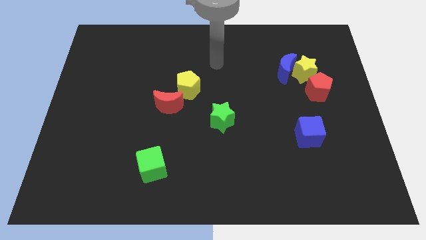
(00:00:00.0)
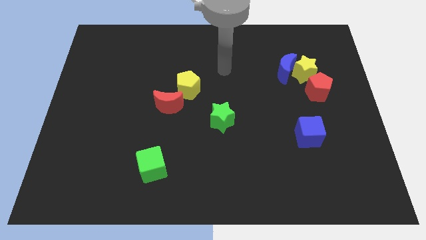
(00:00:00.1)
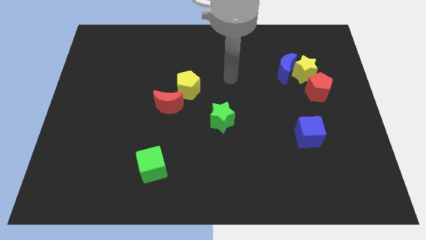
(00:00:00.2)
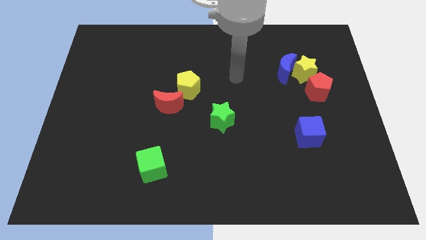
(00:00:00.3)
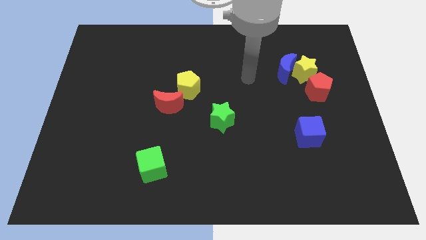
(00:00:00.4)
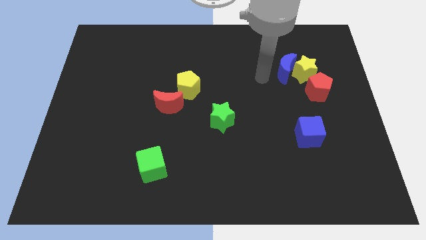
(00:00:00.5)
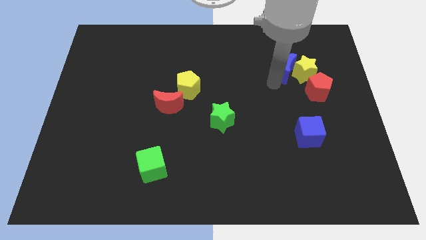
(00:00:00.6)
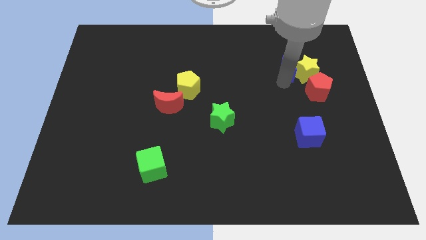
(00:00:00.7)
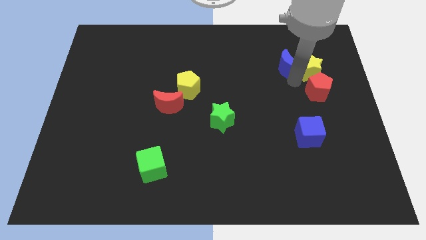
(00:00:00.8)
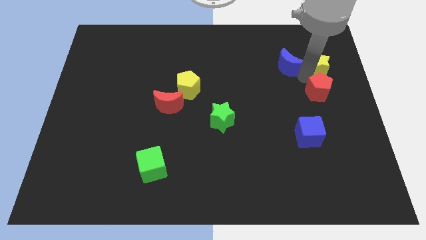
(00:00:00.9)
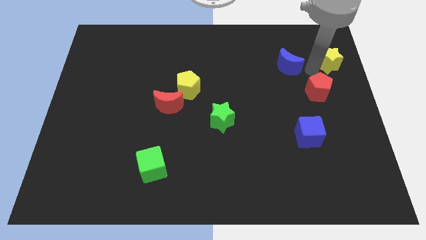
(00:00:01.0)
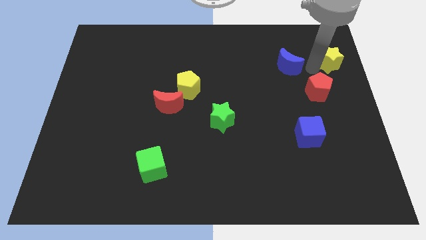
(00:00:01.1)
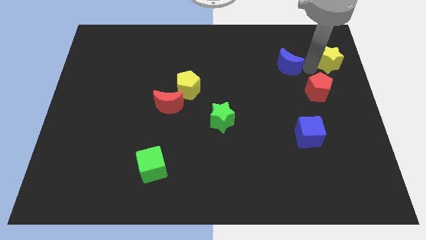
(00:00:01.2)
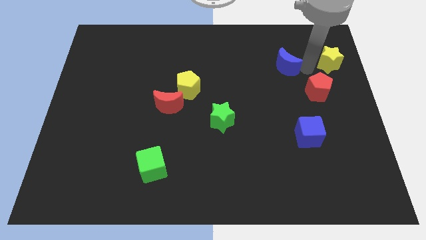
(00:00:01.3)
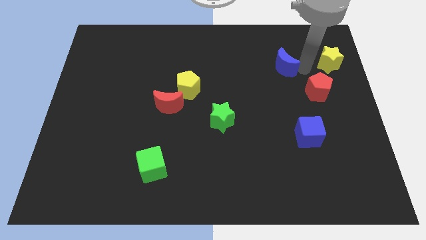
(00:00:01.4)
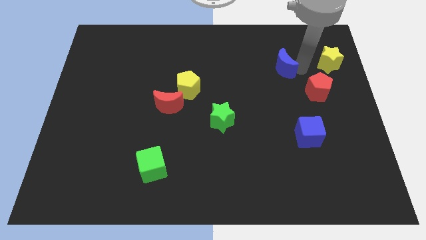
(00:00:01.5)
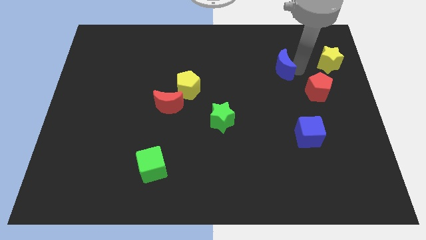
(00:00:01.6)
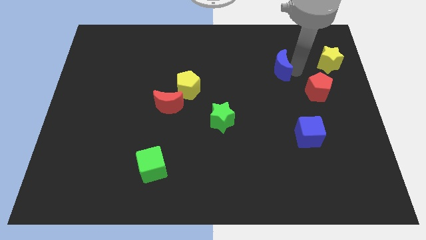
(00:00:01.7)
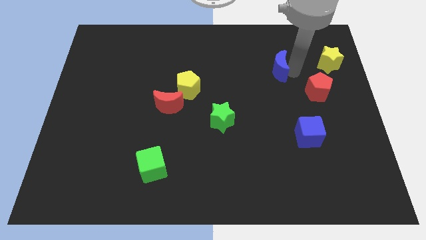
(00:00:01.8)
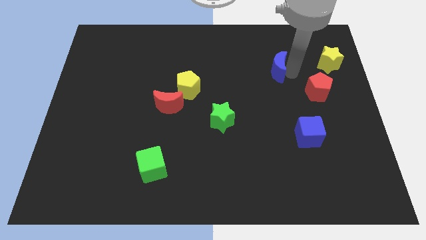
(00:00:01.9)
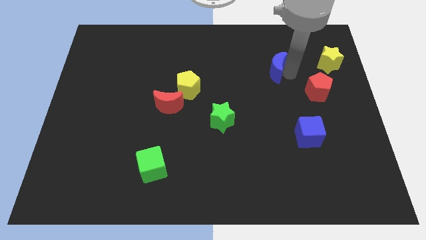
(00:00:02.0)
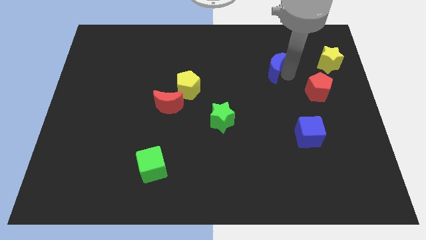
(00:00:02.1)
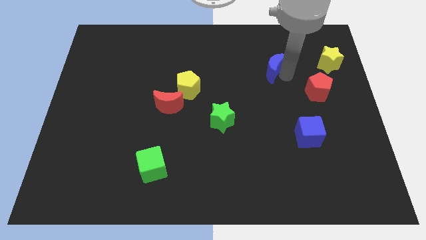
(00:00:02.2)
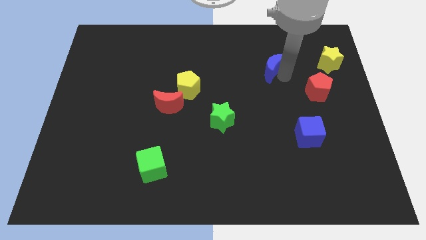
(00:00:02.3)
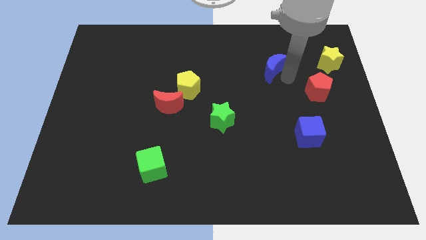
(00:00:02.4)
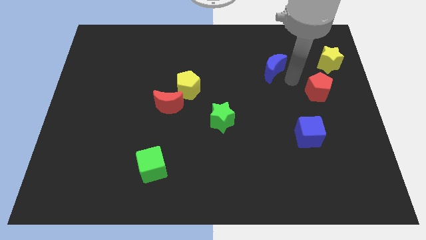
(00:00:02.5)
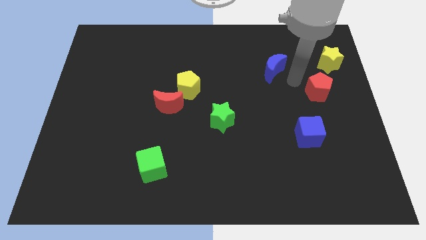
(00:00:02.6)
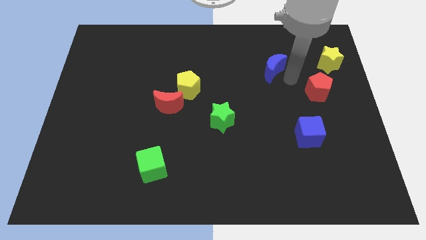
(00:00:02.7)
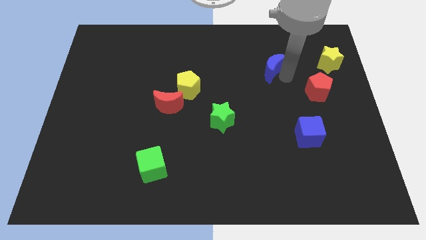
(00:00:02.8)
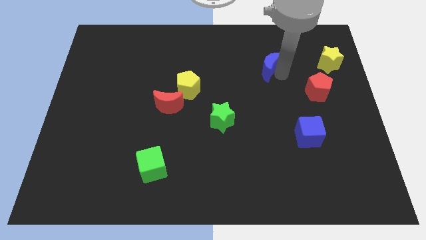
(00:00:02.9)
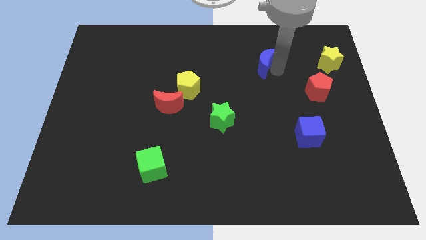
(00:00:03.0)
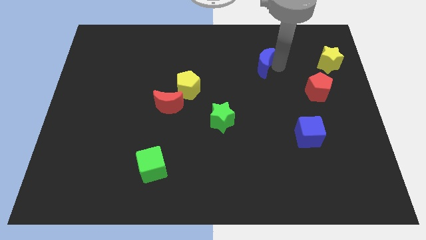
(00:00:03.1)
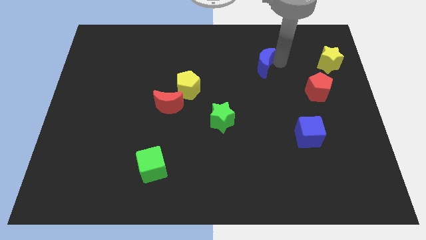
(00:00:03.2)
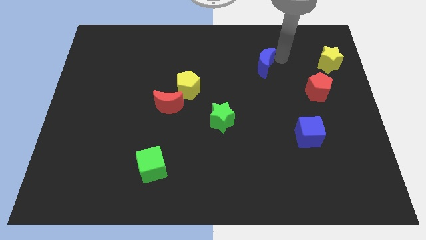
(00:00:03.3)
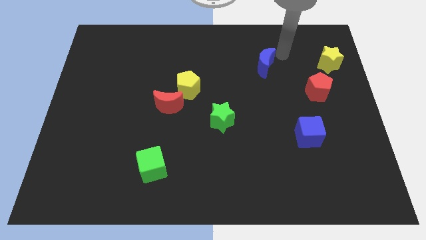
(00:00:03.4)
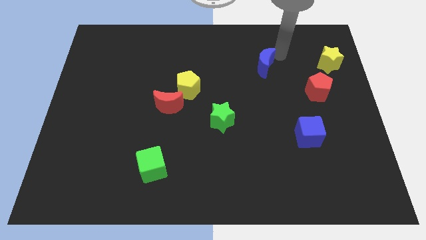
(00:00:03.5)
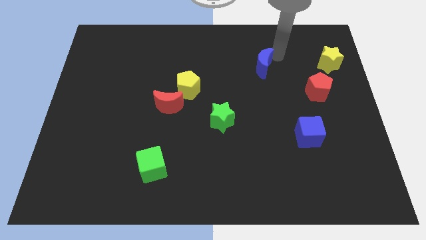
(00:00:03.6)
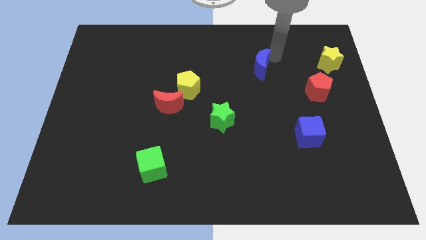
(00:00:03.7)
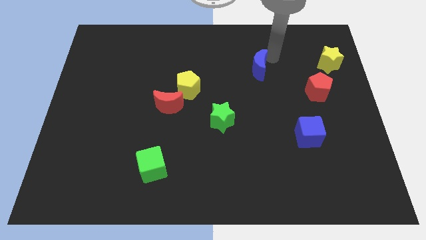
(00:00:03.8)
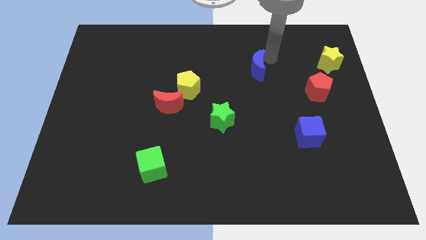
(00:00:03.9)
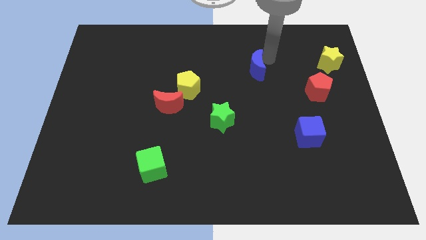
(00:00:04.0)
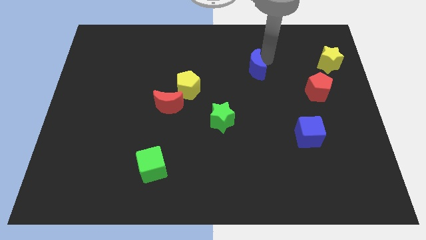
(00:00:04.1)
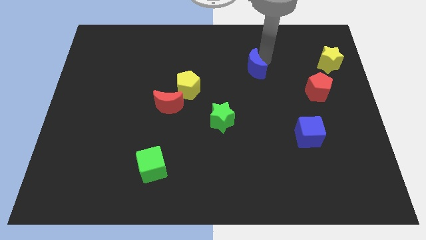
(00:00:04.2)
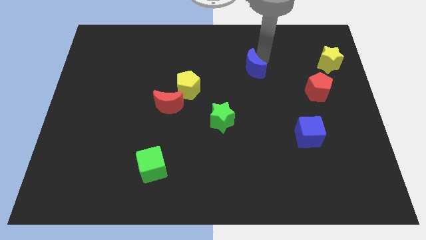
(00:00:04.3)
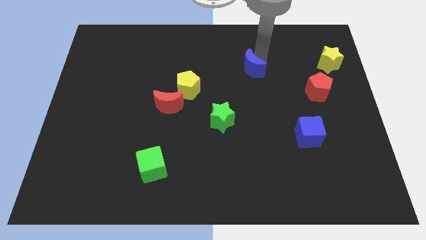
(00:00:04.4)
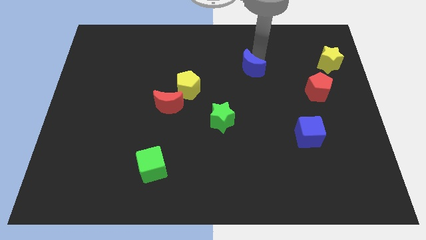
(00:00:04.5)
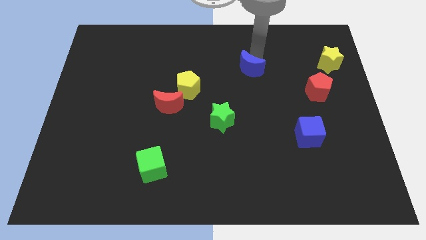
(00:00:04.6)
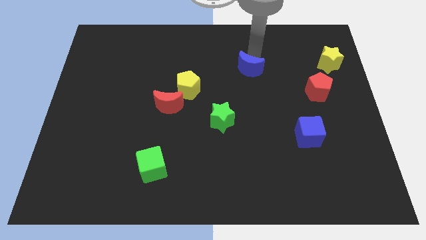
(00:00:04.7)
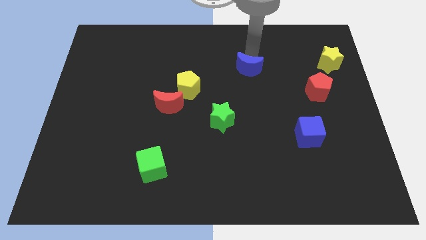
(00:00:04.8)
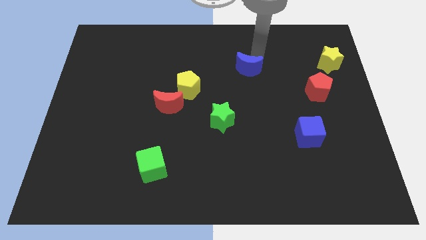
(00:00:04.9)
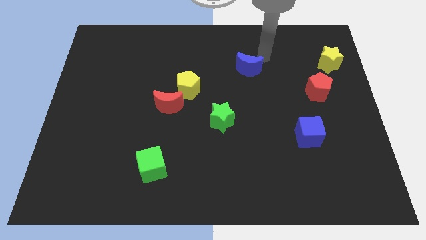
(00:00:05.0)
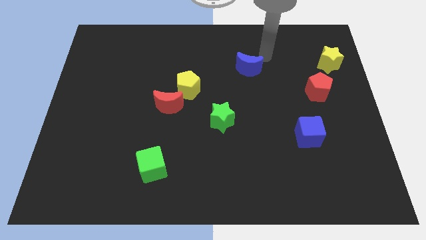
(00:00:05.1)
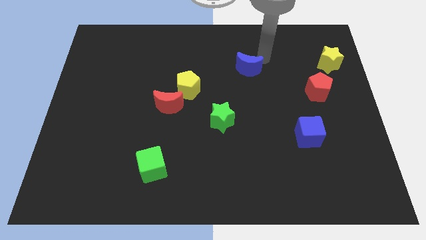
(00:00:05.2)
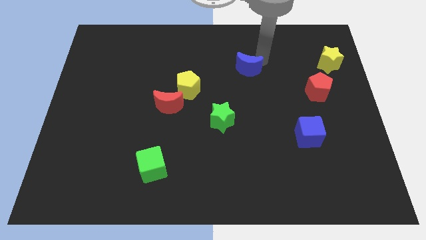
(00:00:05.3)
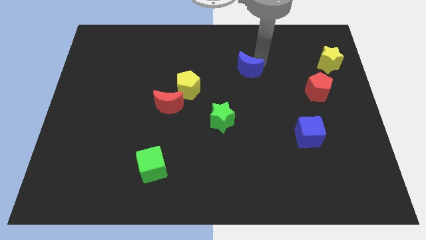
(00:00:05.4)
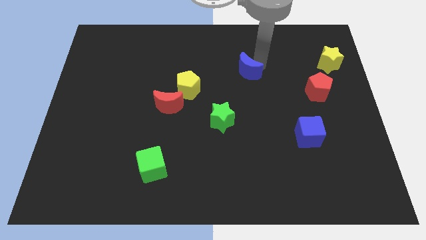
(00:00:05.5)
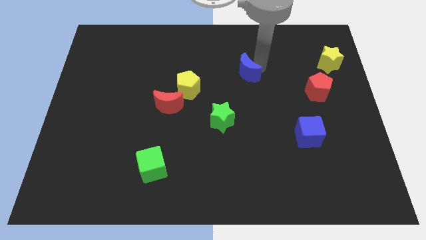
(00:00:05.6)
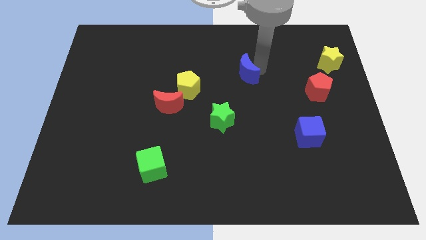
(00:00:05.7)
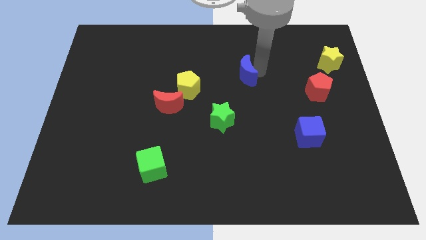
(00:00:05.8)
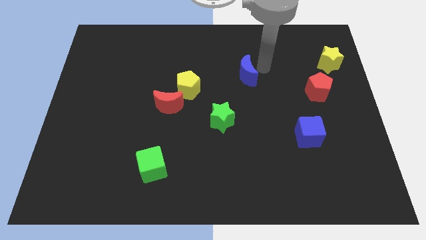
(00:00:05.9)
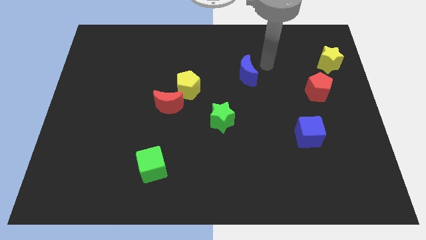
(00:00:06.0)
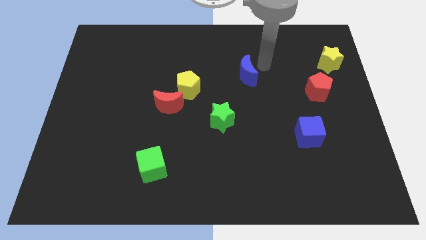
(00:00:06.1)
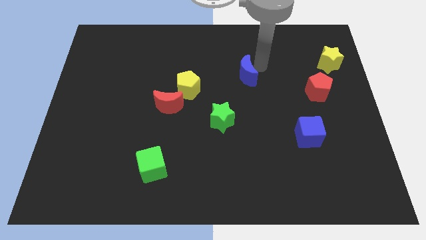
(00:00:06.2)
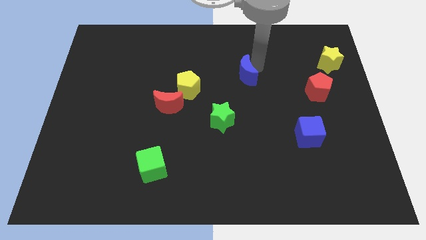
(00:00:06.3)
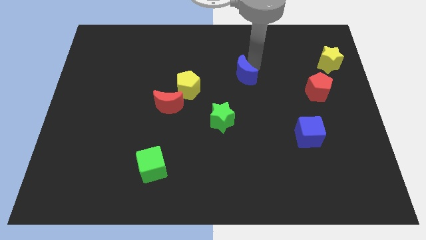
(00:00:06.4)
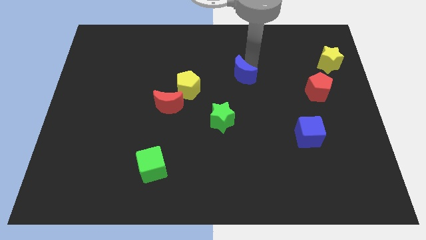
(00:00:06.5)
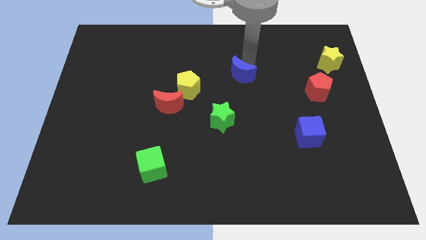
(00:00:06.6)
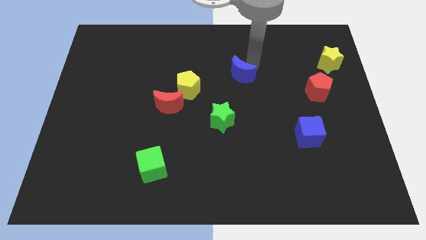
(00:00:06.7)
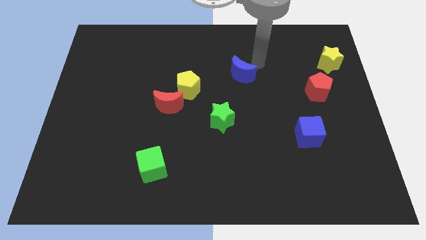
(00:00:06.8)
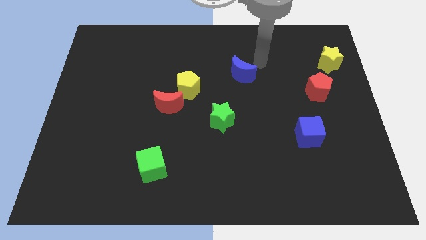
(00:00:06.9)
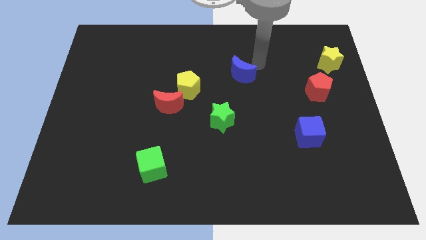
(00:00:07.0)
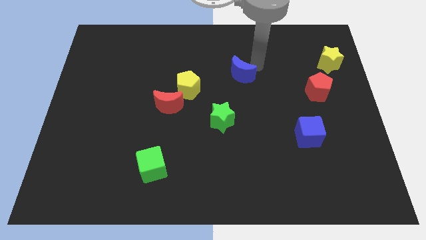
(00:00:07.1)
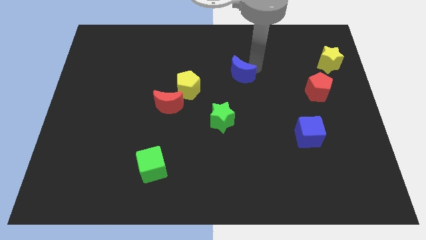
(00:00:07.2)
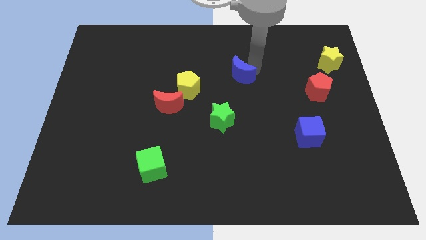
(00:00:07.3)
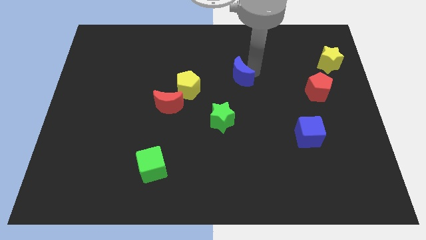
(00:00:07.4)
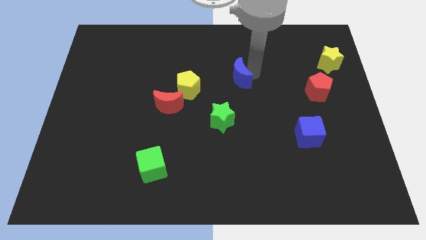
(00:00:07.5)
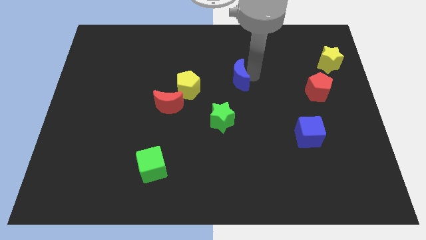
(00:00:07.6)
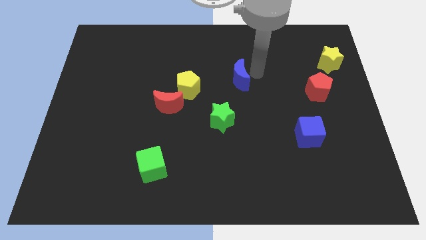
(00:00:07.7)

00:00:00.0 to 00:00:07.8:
slide the blue moon to the top side of the green star
